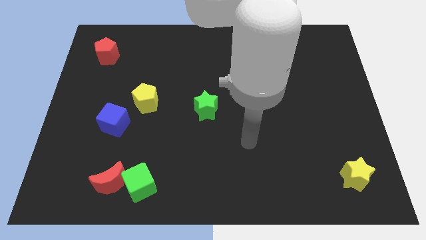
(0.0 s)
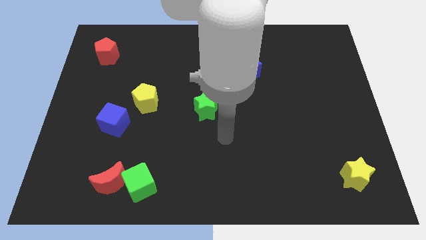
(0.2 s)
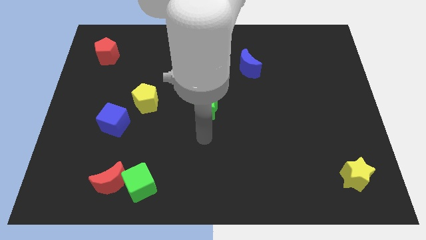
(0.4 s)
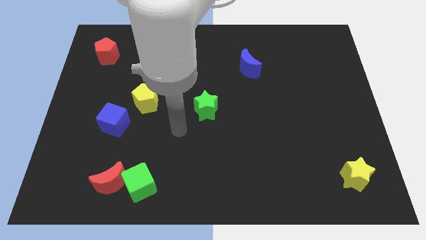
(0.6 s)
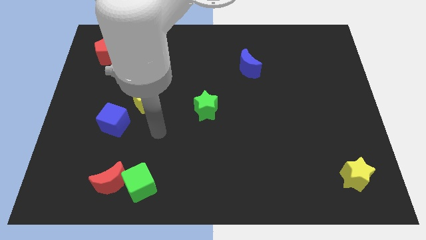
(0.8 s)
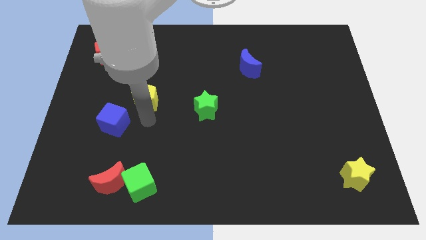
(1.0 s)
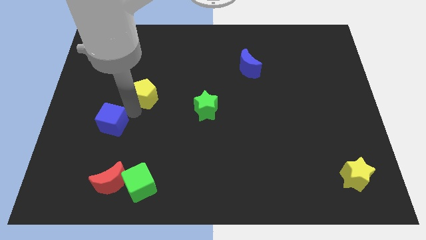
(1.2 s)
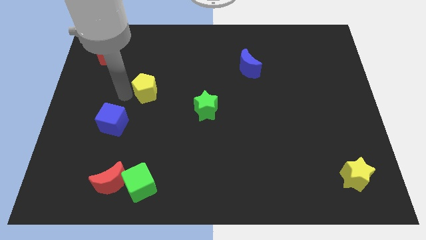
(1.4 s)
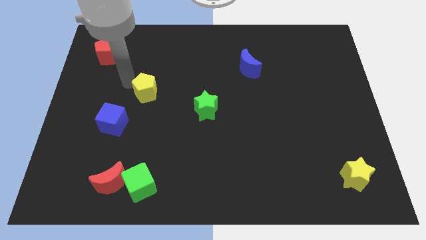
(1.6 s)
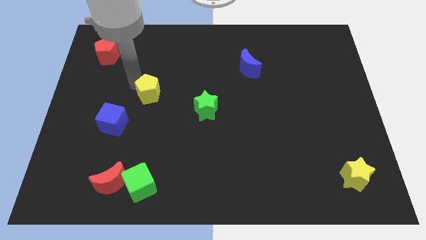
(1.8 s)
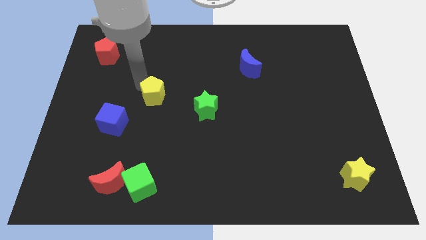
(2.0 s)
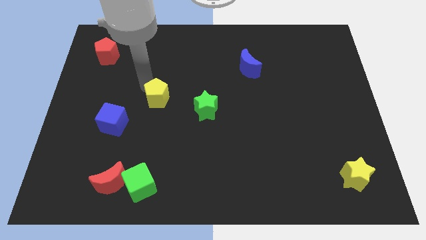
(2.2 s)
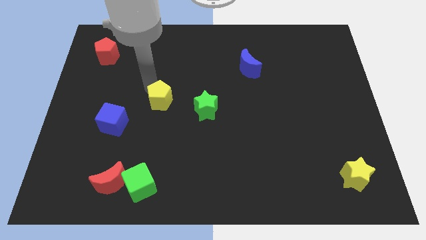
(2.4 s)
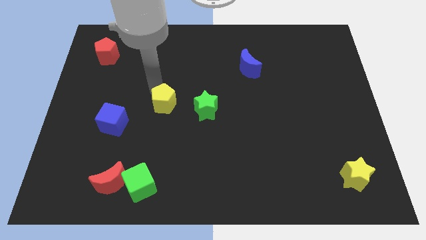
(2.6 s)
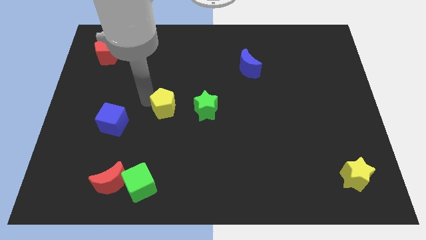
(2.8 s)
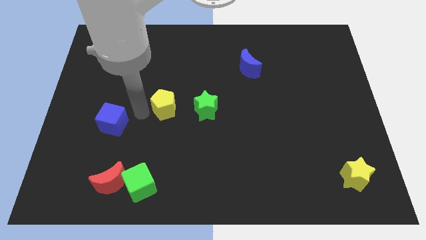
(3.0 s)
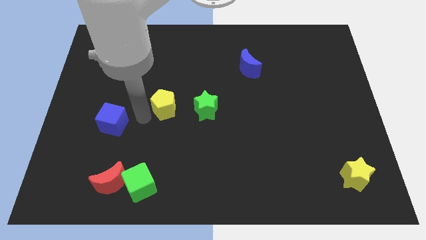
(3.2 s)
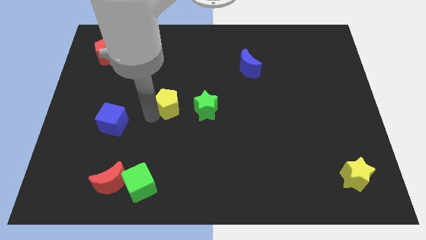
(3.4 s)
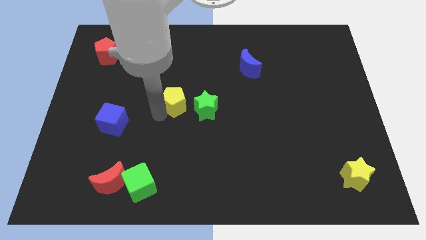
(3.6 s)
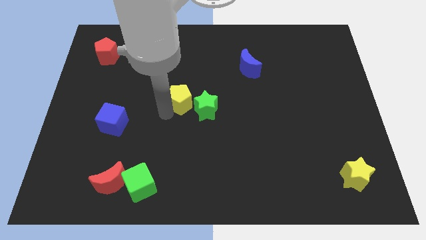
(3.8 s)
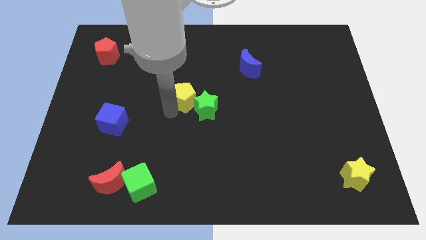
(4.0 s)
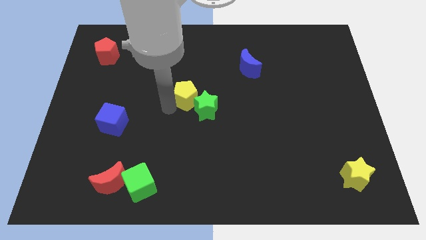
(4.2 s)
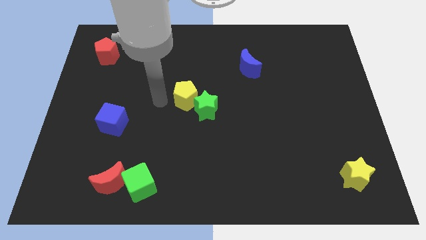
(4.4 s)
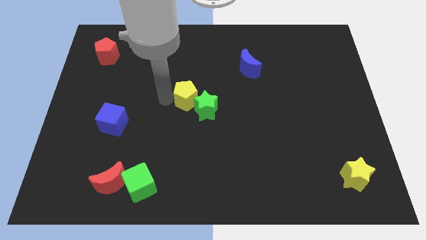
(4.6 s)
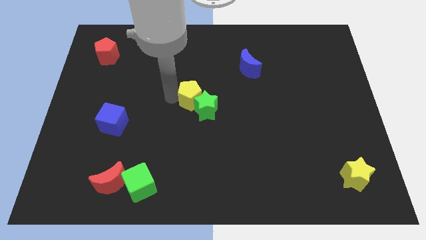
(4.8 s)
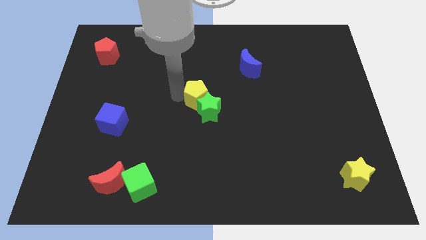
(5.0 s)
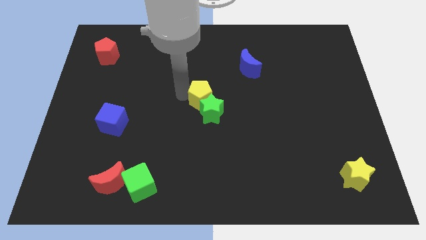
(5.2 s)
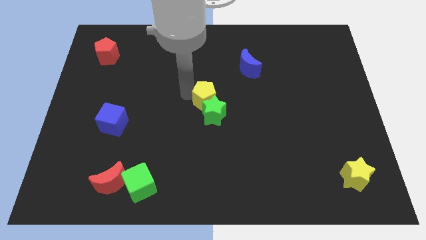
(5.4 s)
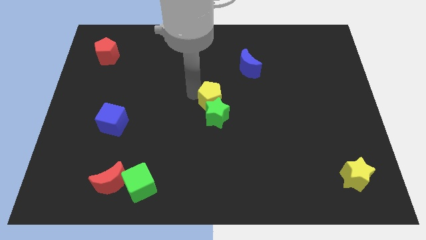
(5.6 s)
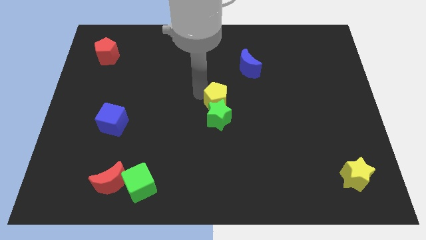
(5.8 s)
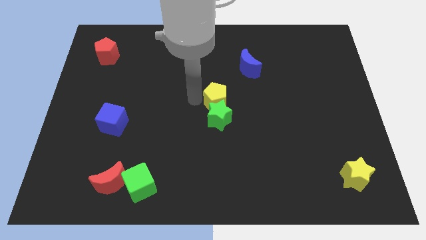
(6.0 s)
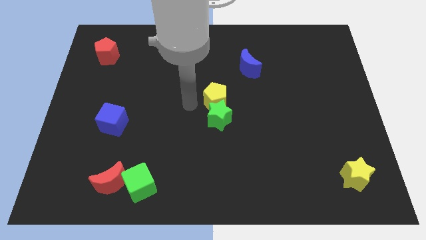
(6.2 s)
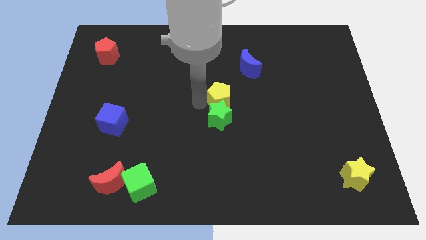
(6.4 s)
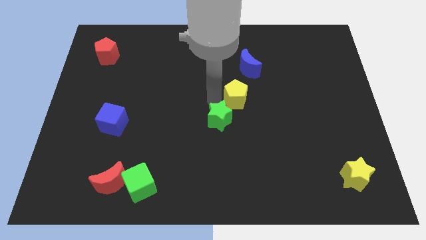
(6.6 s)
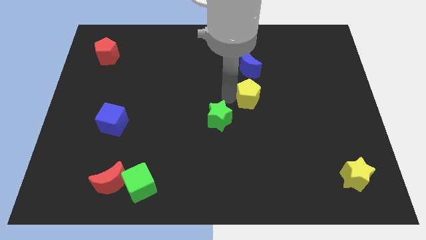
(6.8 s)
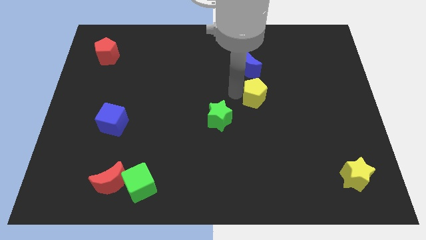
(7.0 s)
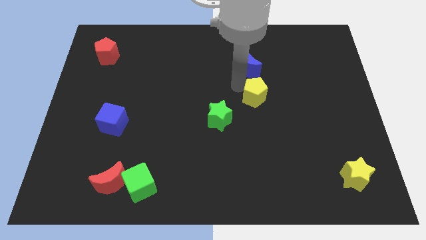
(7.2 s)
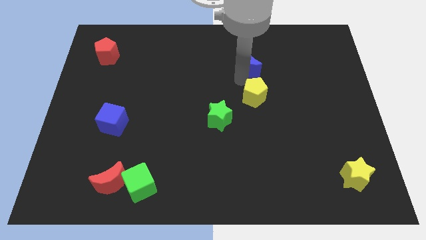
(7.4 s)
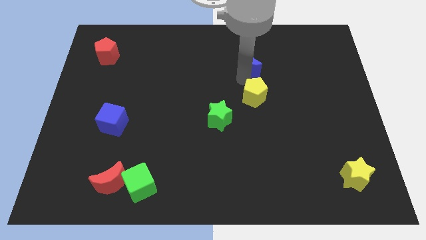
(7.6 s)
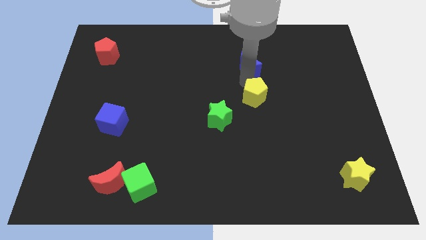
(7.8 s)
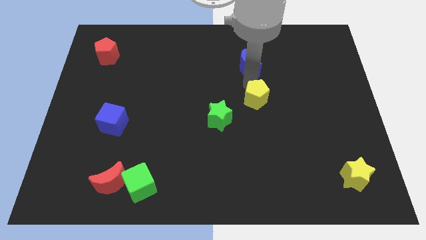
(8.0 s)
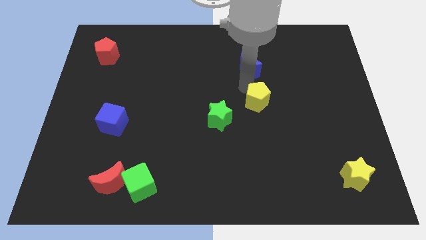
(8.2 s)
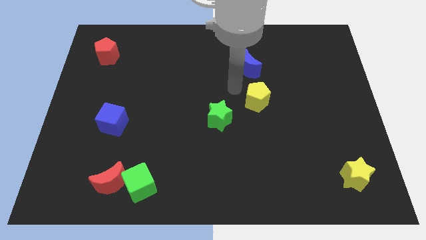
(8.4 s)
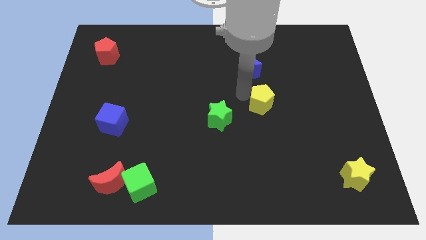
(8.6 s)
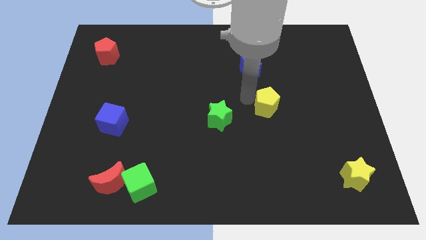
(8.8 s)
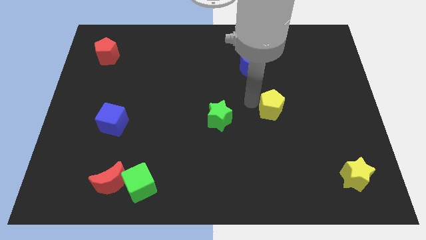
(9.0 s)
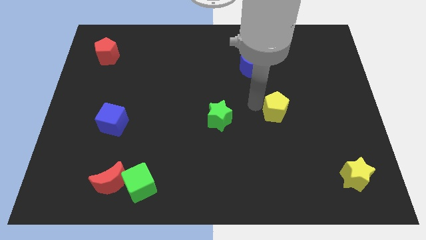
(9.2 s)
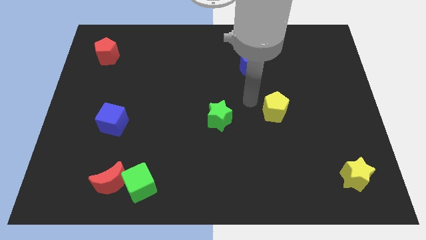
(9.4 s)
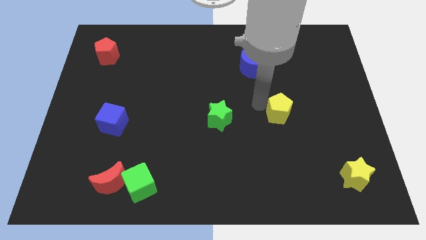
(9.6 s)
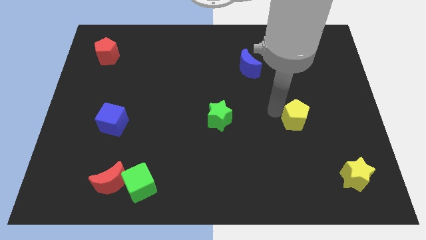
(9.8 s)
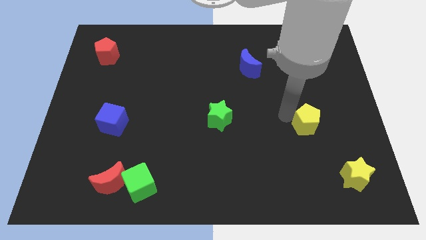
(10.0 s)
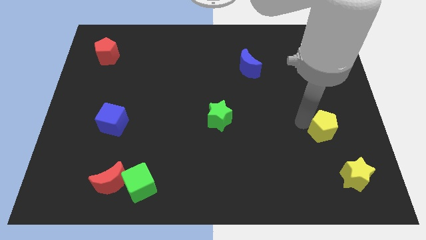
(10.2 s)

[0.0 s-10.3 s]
push the yellow pentagon to the top side of the yellow star

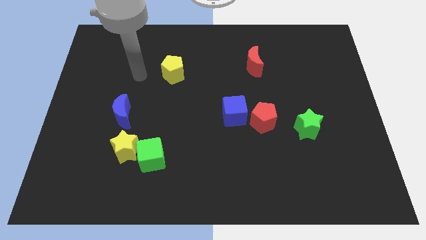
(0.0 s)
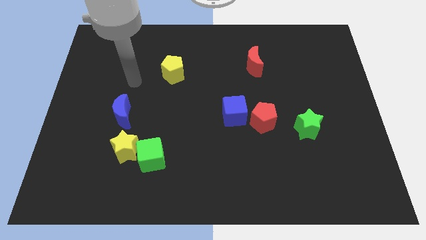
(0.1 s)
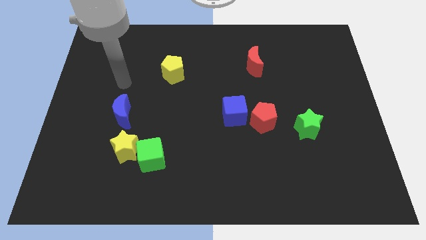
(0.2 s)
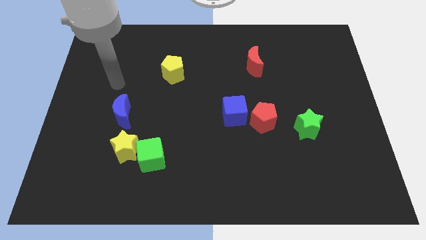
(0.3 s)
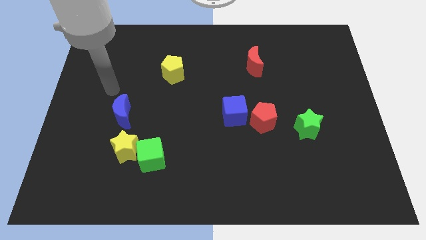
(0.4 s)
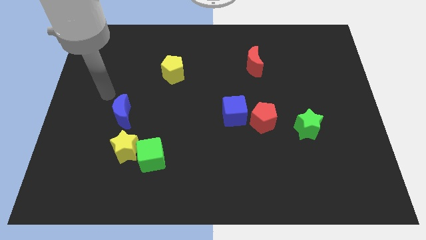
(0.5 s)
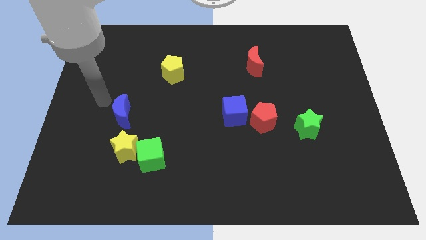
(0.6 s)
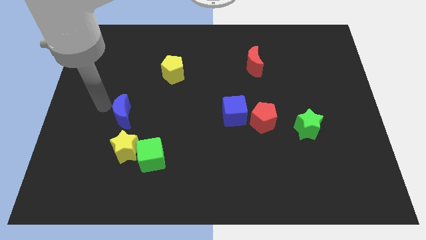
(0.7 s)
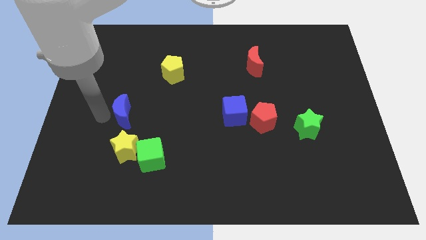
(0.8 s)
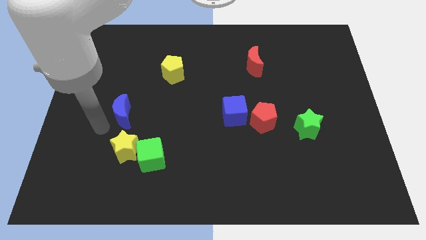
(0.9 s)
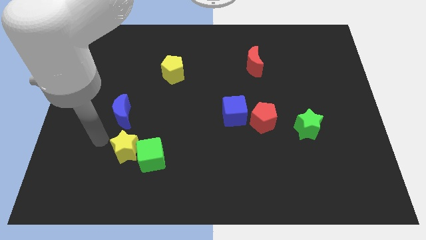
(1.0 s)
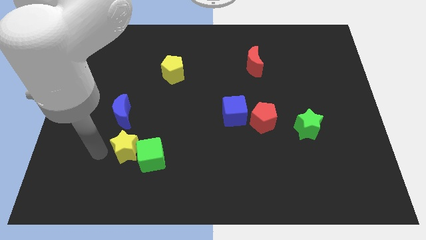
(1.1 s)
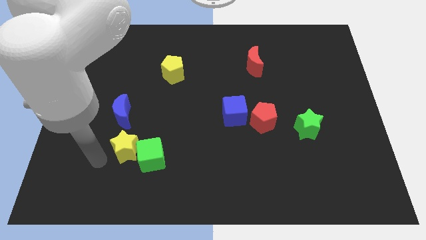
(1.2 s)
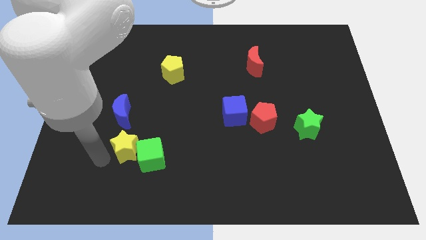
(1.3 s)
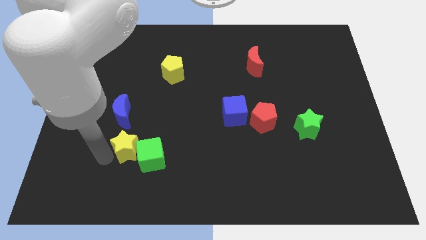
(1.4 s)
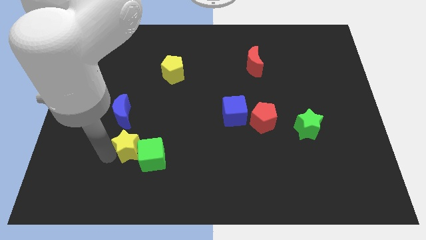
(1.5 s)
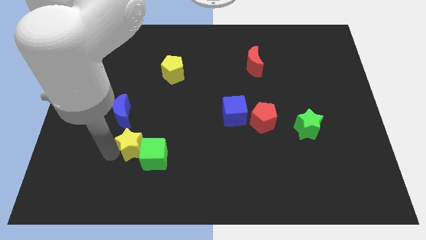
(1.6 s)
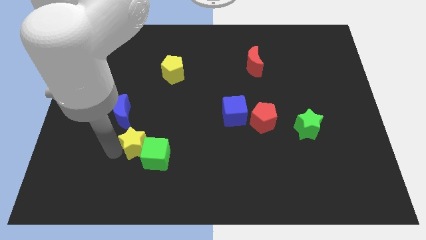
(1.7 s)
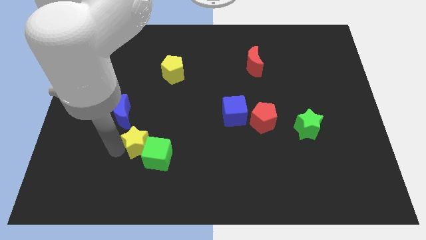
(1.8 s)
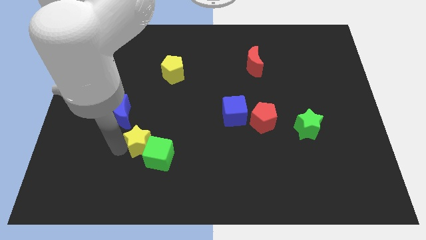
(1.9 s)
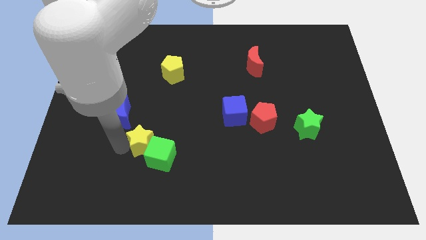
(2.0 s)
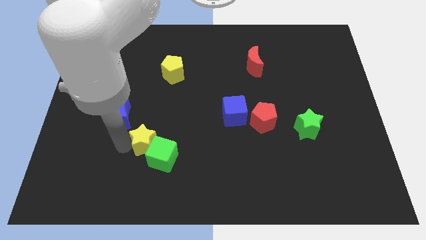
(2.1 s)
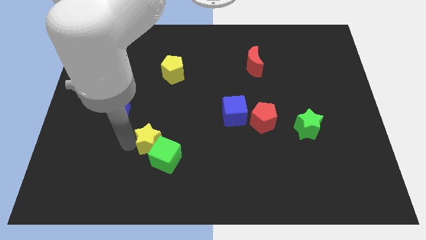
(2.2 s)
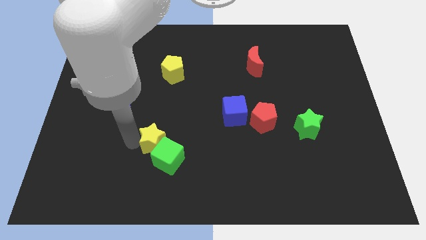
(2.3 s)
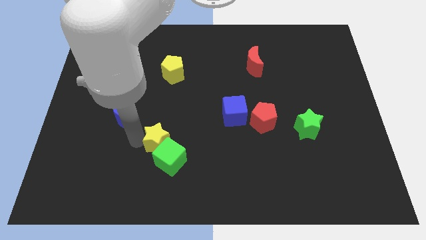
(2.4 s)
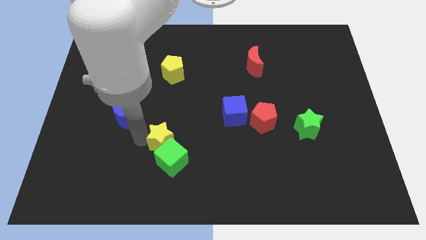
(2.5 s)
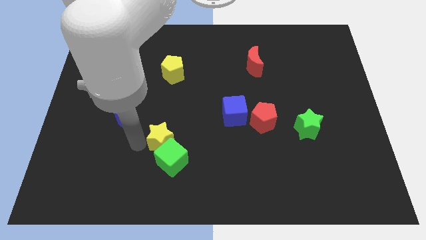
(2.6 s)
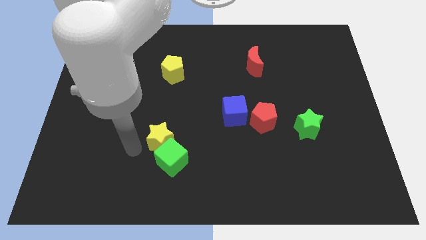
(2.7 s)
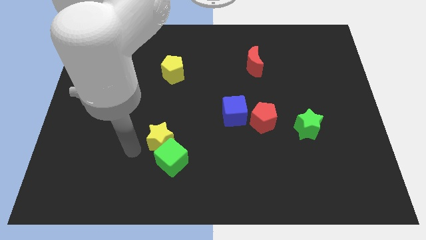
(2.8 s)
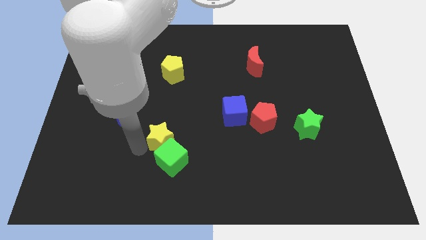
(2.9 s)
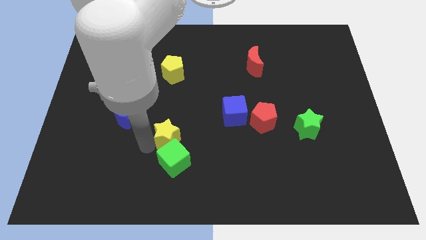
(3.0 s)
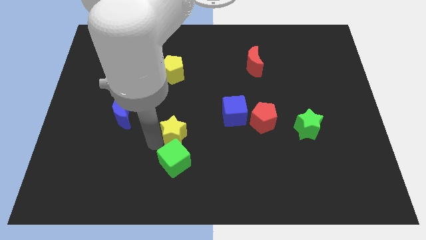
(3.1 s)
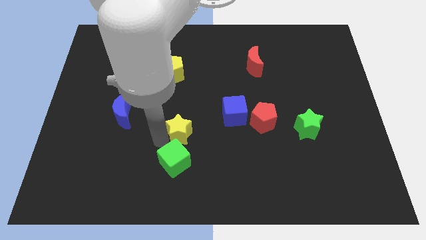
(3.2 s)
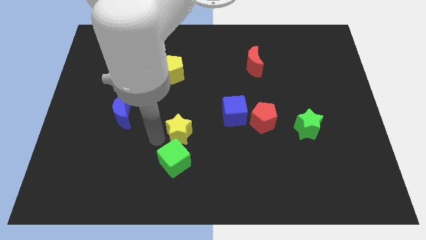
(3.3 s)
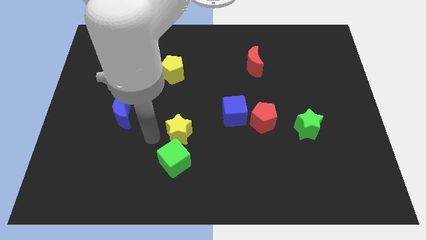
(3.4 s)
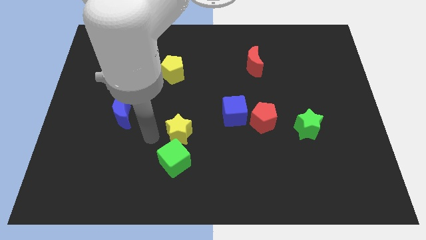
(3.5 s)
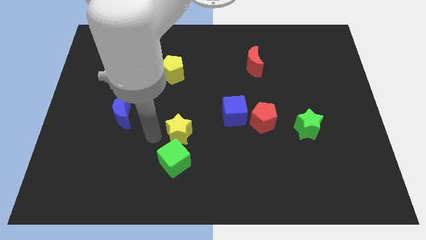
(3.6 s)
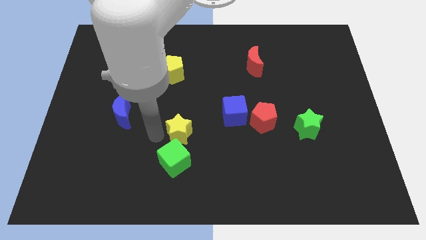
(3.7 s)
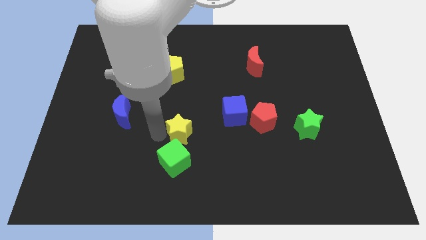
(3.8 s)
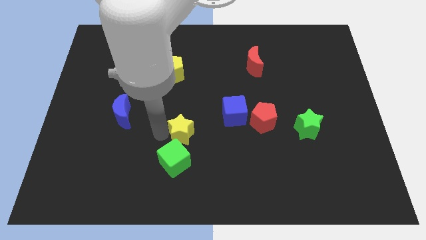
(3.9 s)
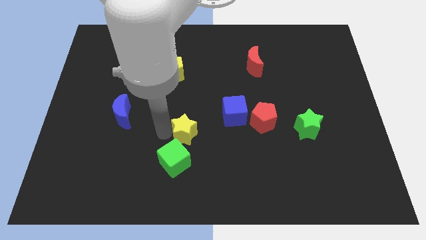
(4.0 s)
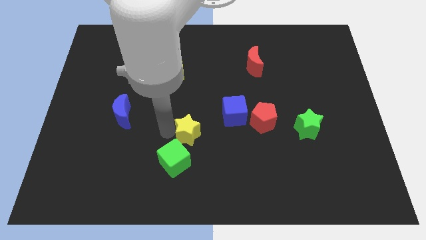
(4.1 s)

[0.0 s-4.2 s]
move the yellow star to the bottom left of the blue cube
